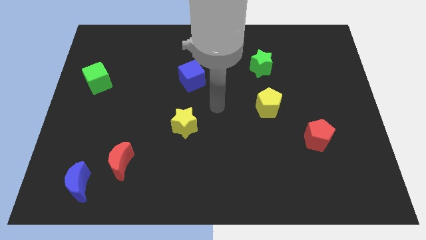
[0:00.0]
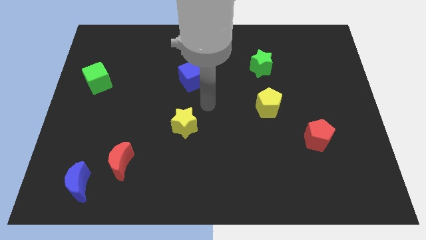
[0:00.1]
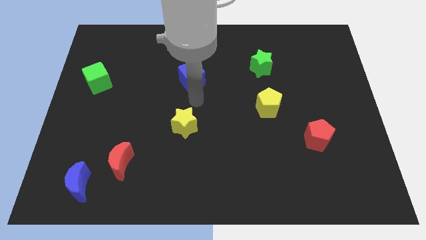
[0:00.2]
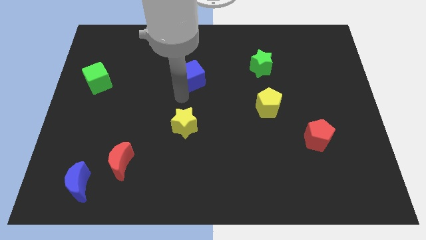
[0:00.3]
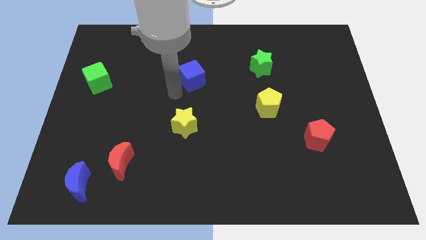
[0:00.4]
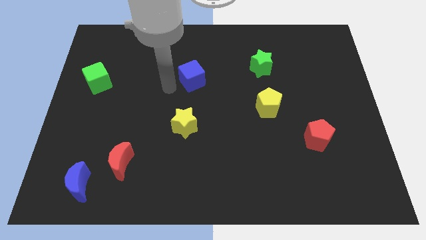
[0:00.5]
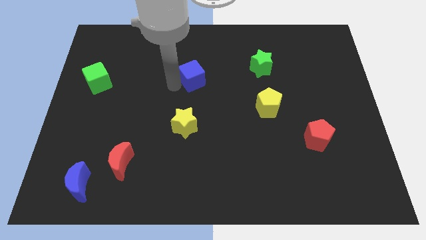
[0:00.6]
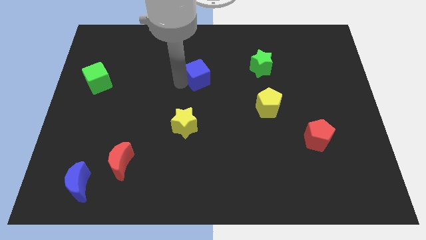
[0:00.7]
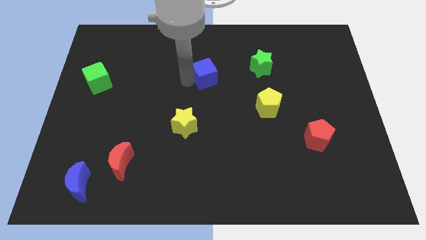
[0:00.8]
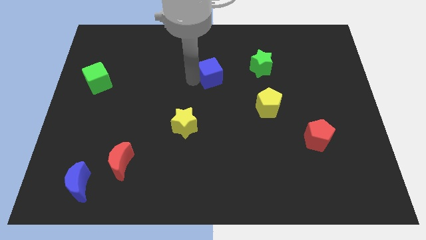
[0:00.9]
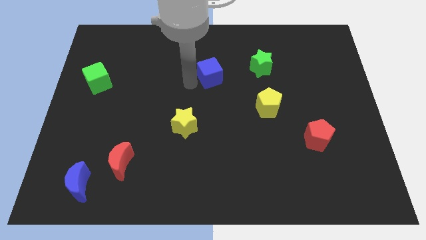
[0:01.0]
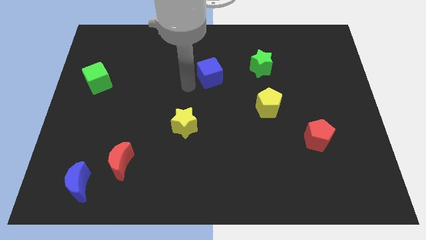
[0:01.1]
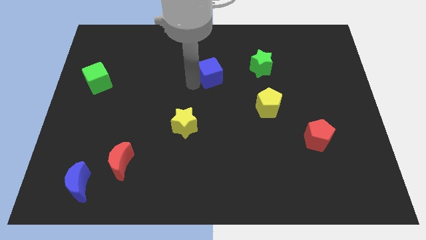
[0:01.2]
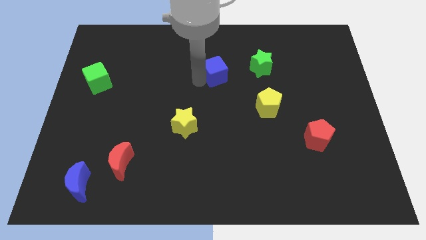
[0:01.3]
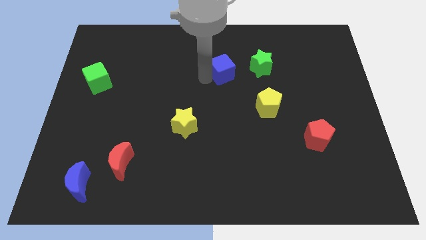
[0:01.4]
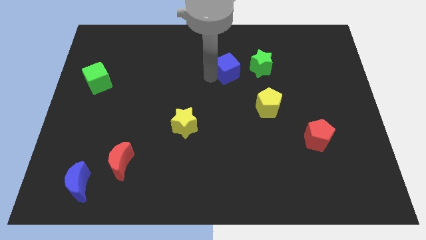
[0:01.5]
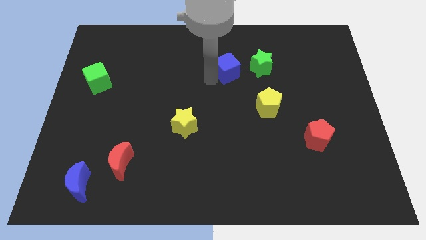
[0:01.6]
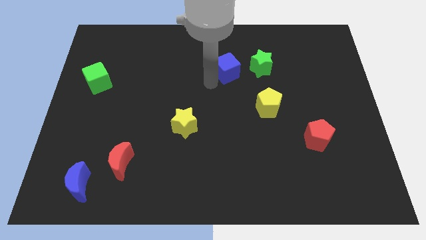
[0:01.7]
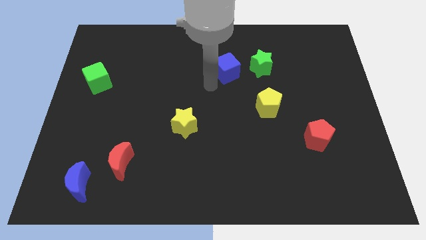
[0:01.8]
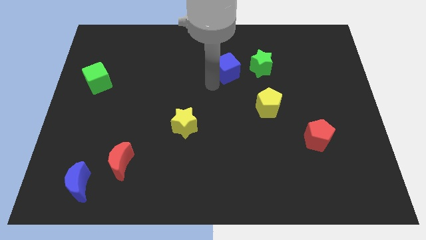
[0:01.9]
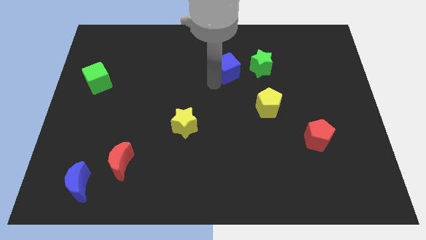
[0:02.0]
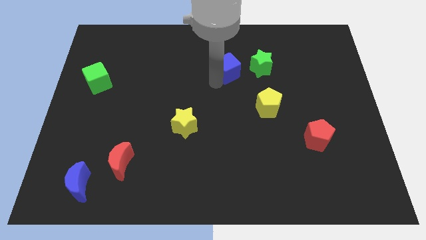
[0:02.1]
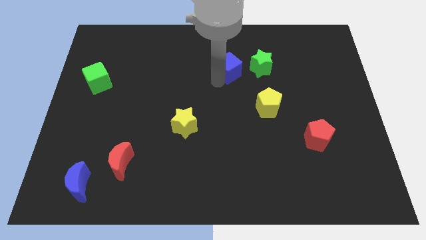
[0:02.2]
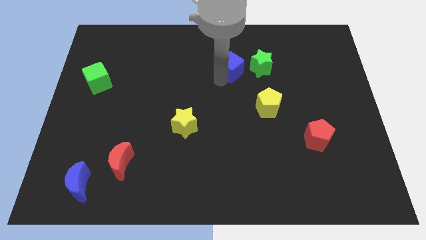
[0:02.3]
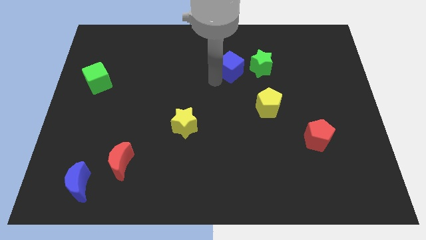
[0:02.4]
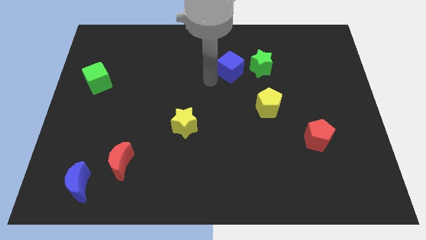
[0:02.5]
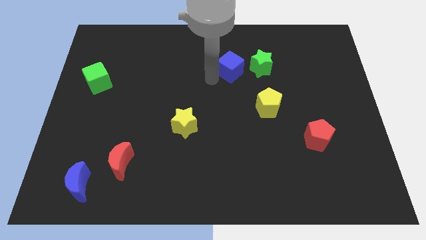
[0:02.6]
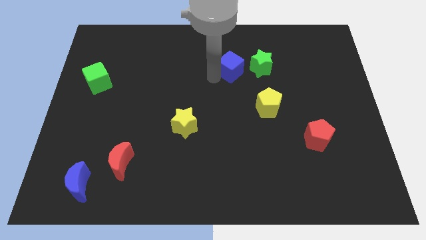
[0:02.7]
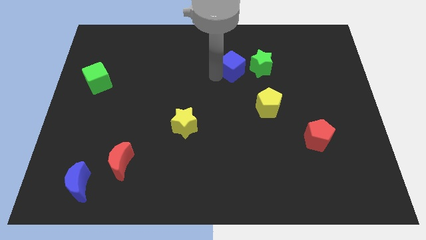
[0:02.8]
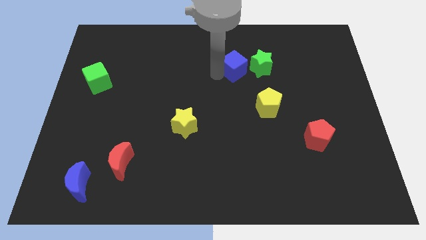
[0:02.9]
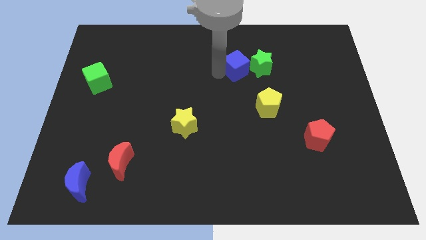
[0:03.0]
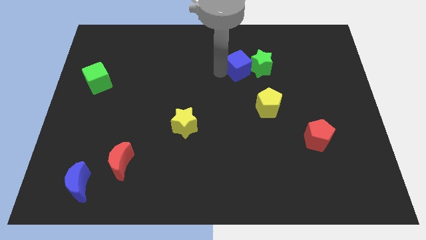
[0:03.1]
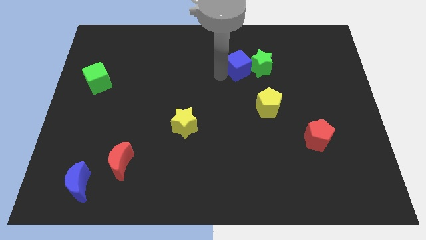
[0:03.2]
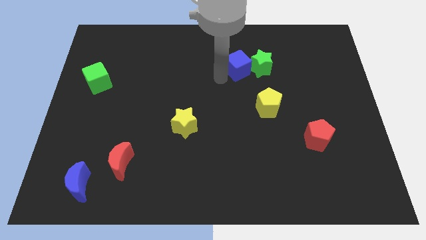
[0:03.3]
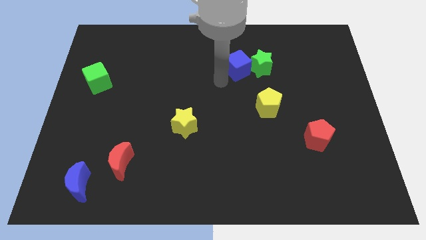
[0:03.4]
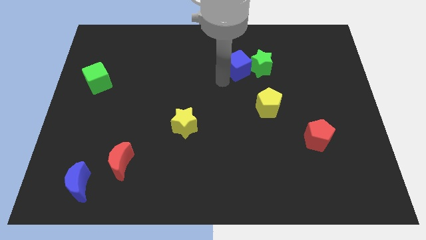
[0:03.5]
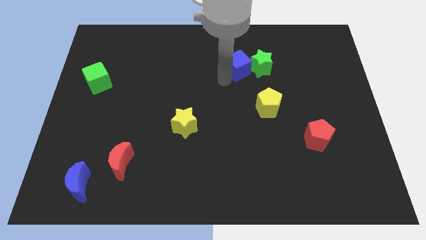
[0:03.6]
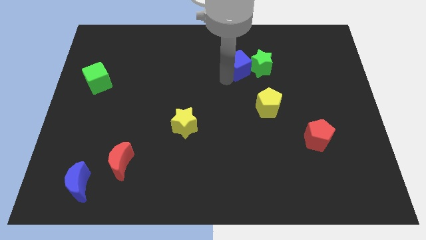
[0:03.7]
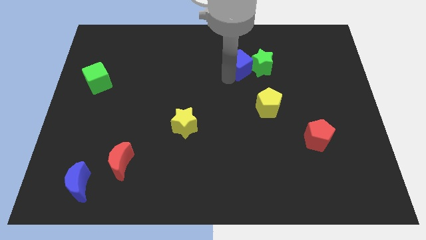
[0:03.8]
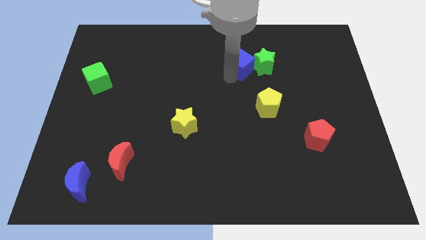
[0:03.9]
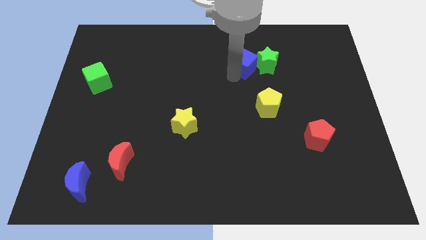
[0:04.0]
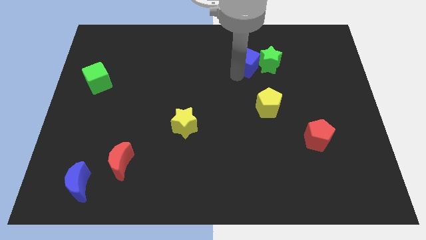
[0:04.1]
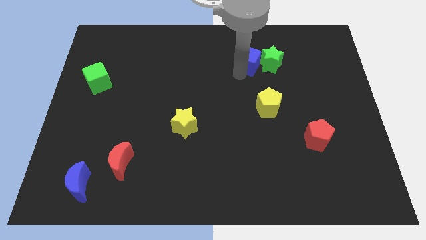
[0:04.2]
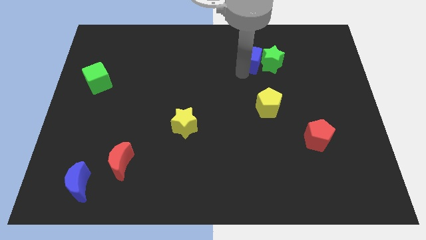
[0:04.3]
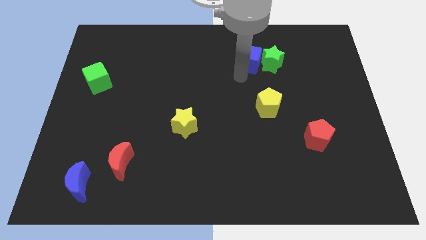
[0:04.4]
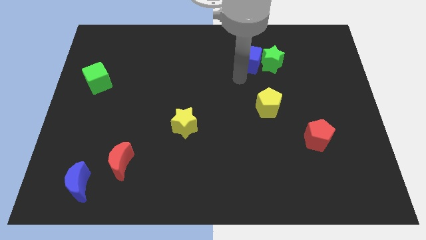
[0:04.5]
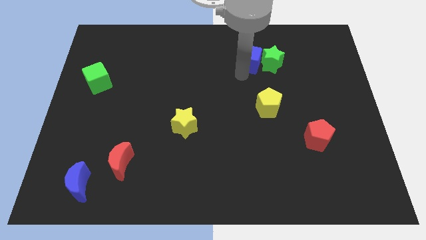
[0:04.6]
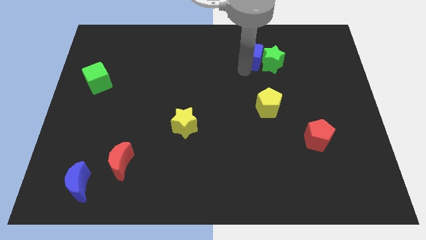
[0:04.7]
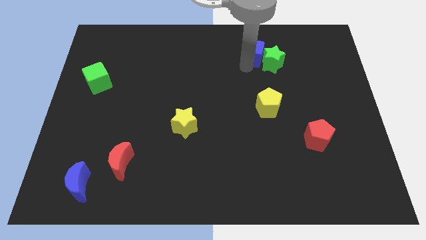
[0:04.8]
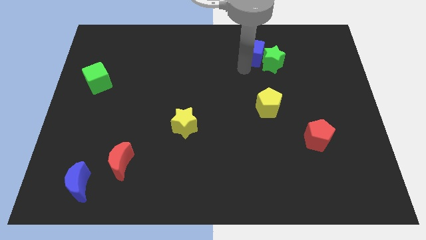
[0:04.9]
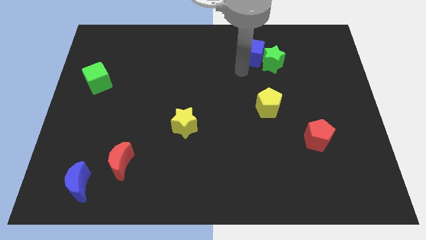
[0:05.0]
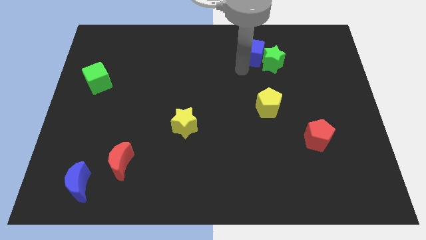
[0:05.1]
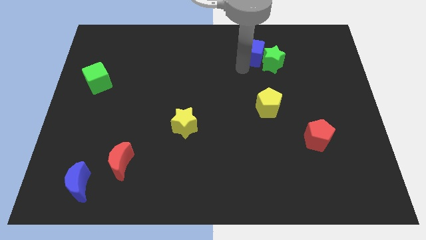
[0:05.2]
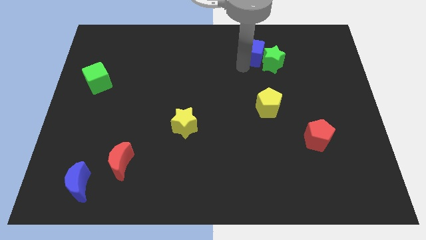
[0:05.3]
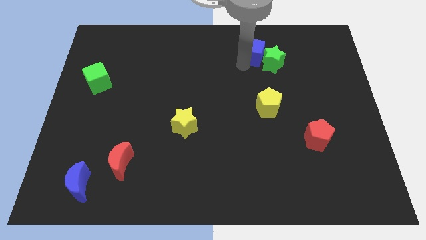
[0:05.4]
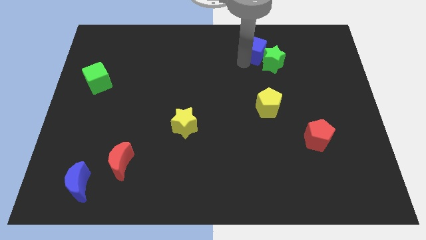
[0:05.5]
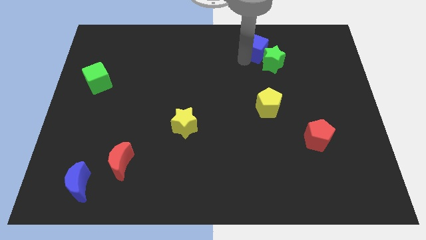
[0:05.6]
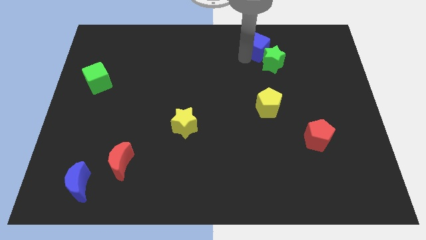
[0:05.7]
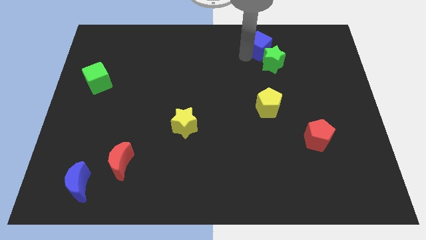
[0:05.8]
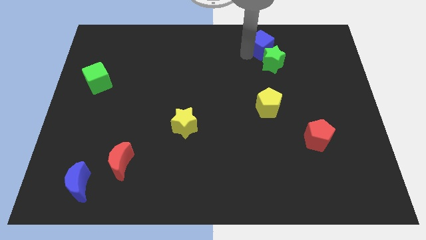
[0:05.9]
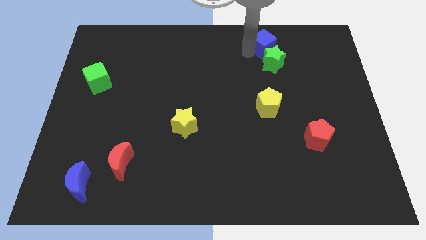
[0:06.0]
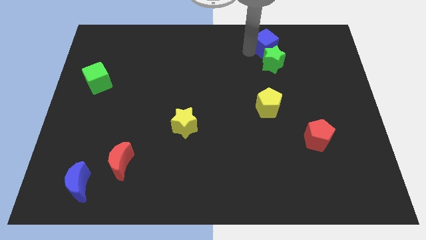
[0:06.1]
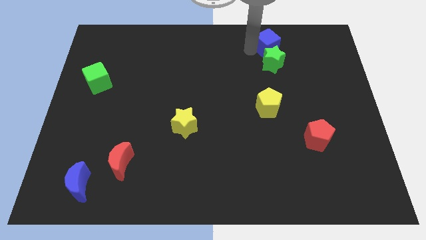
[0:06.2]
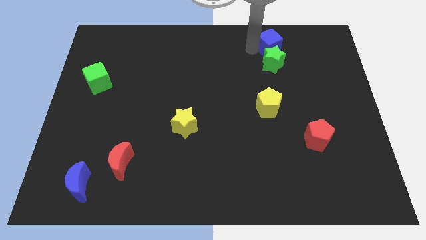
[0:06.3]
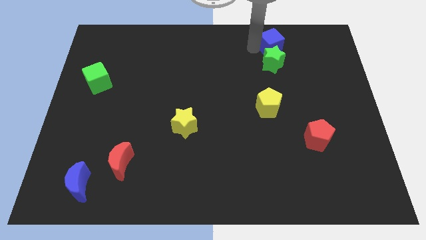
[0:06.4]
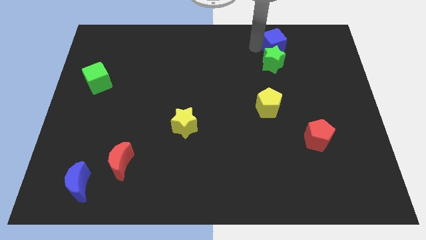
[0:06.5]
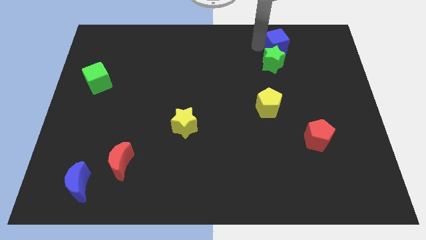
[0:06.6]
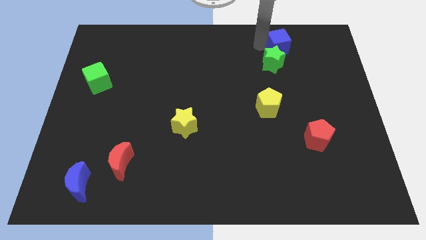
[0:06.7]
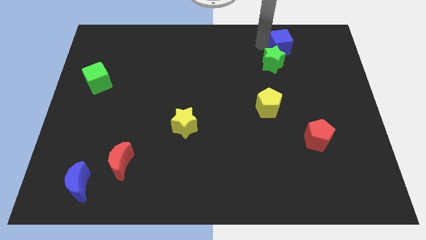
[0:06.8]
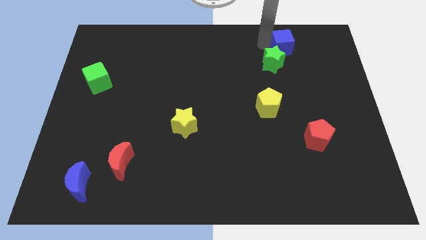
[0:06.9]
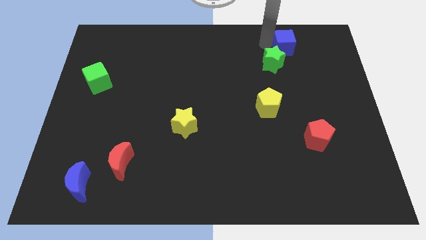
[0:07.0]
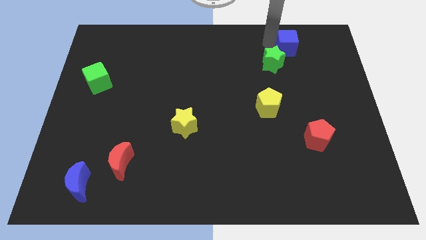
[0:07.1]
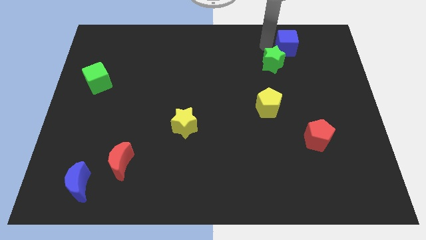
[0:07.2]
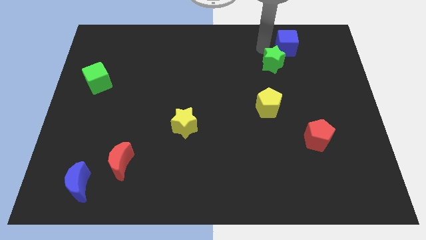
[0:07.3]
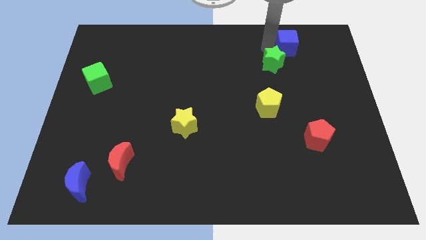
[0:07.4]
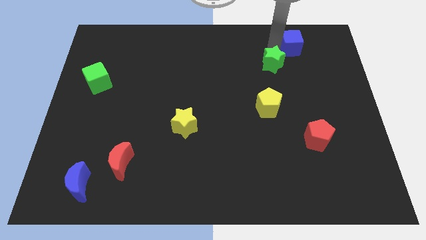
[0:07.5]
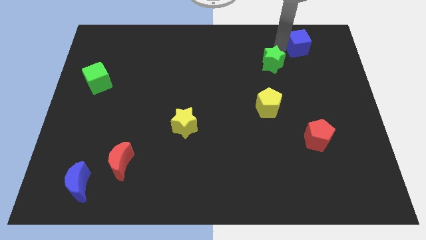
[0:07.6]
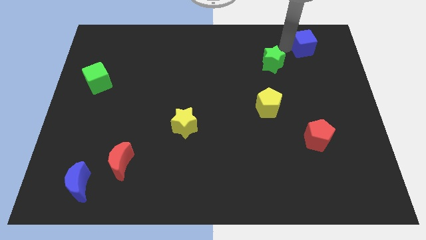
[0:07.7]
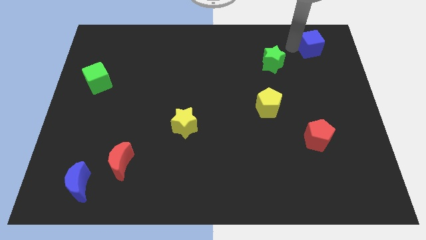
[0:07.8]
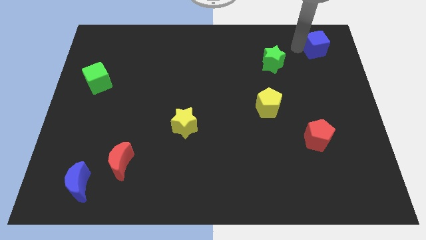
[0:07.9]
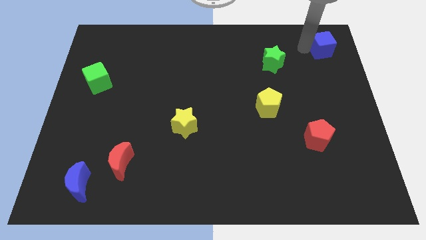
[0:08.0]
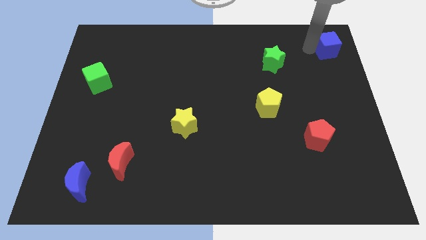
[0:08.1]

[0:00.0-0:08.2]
move the blue cube to the upper right corner
